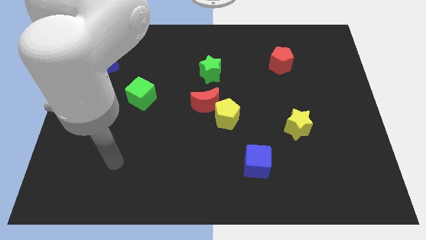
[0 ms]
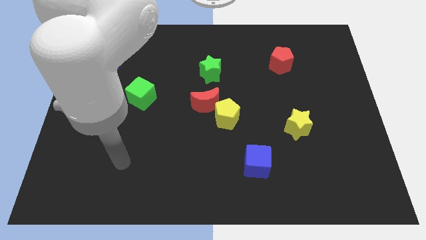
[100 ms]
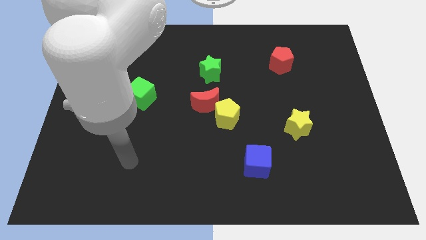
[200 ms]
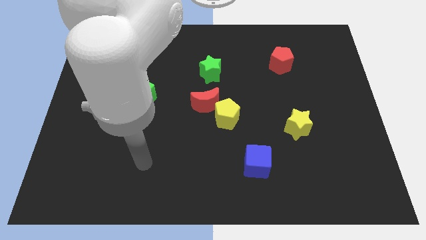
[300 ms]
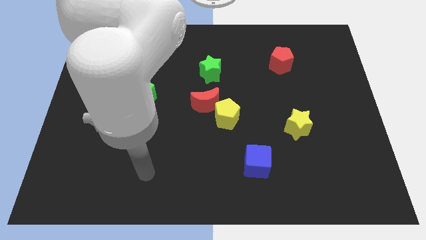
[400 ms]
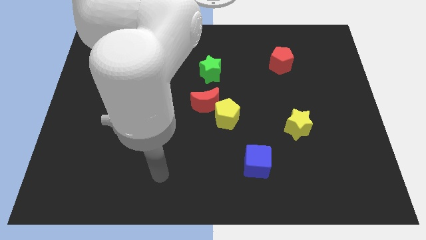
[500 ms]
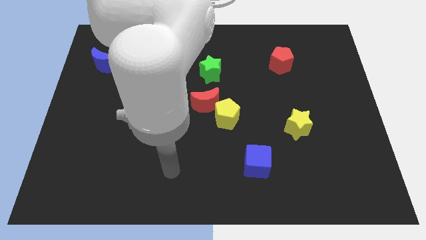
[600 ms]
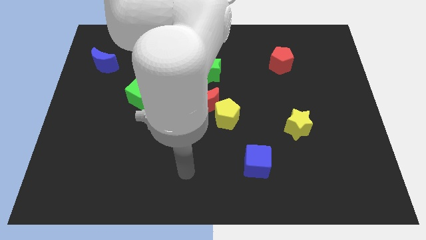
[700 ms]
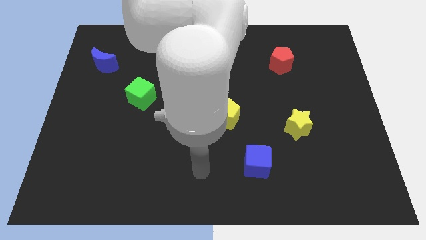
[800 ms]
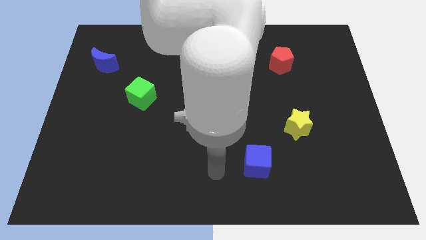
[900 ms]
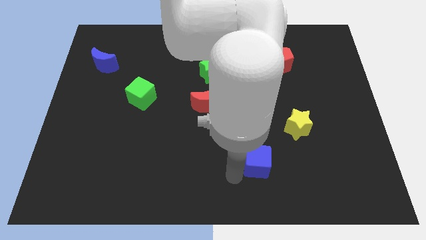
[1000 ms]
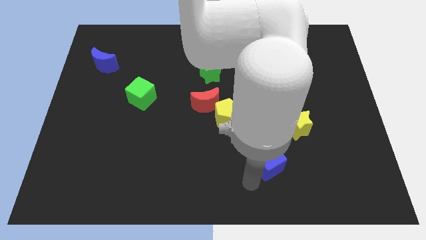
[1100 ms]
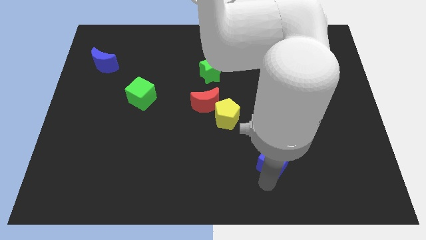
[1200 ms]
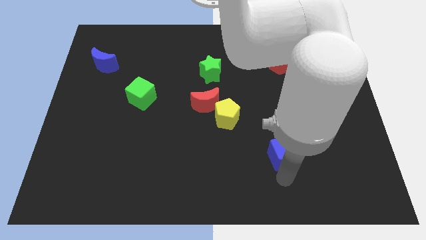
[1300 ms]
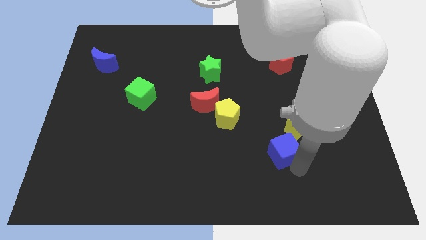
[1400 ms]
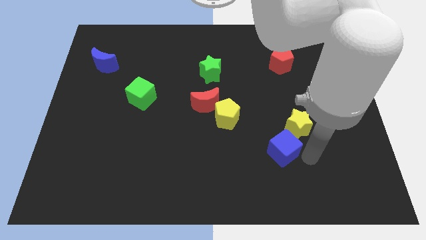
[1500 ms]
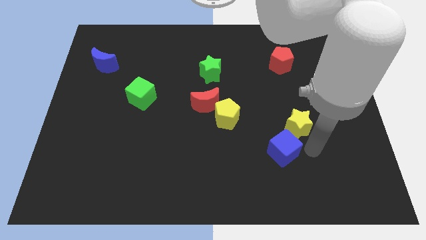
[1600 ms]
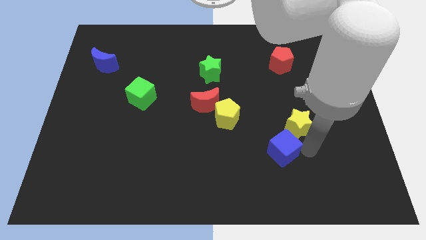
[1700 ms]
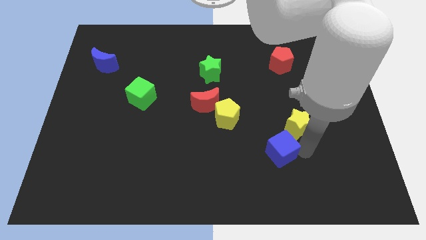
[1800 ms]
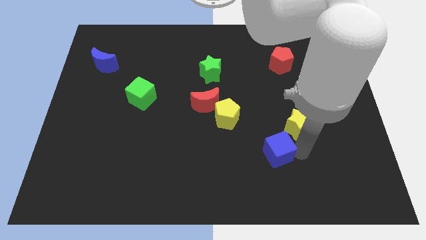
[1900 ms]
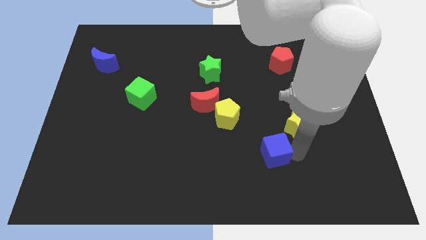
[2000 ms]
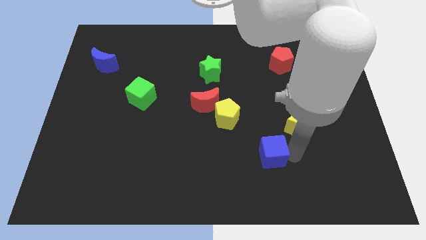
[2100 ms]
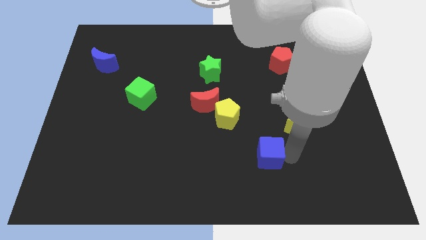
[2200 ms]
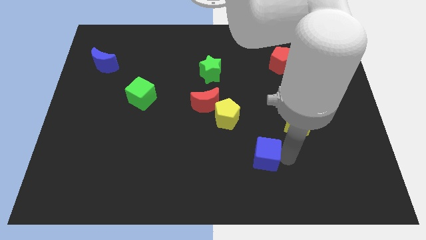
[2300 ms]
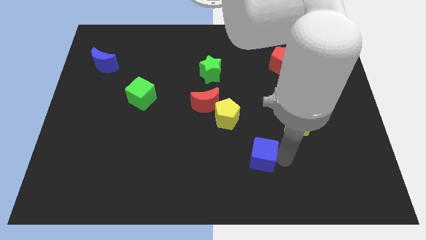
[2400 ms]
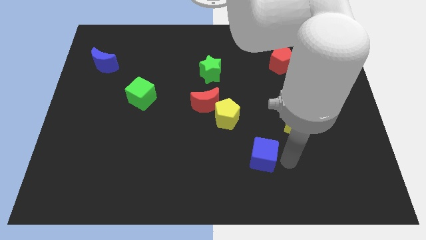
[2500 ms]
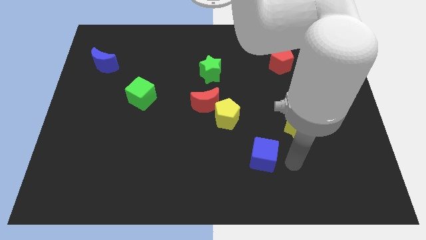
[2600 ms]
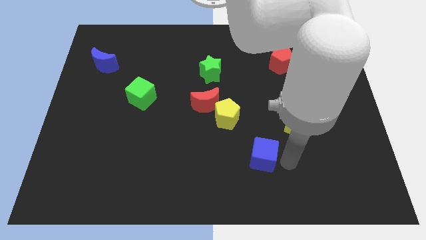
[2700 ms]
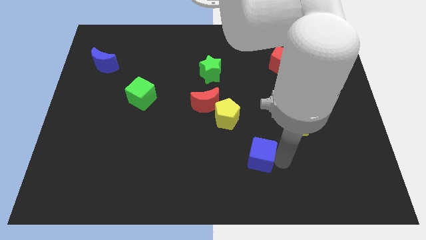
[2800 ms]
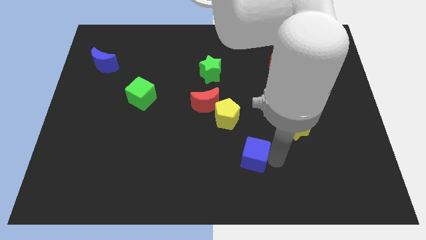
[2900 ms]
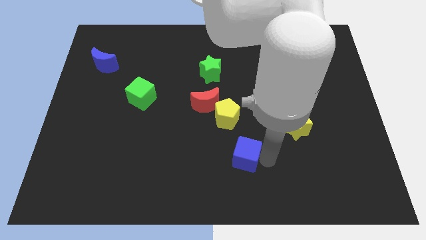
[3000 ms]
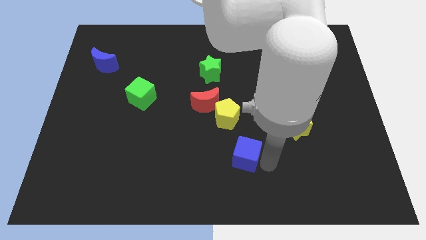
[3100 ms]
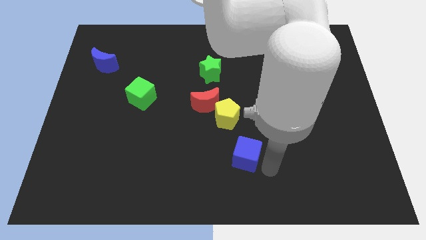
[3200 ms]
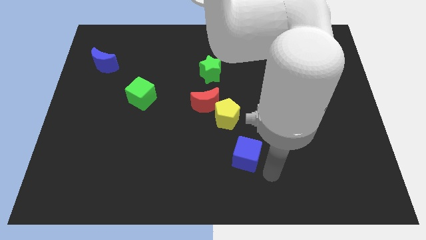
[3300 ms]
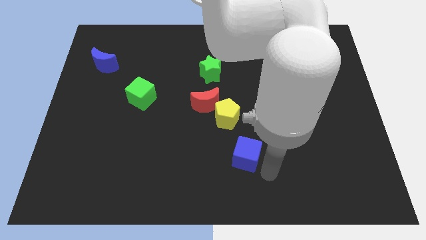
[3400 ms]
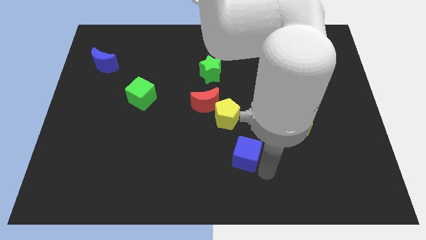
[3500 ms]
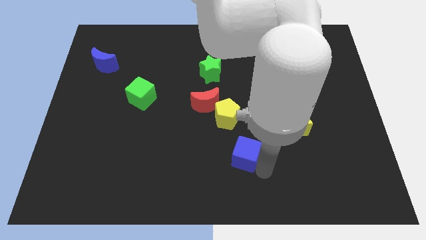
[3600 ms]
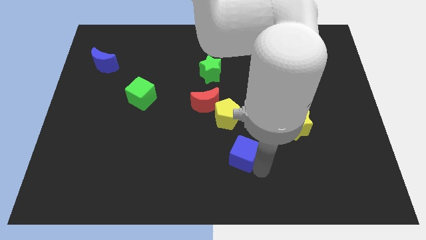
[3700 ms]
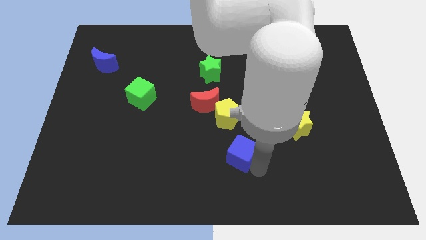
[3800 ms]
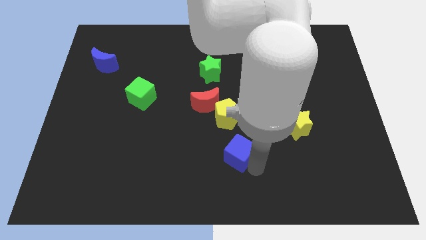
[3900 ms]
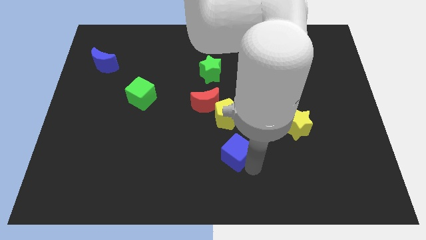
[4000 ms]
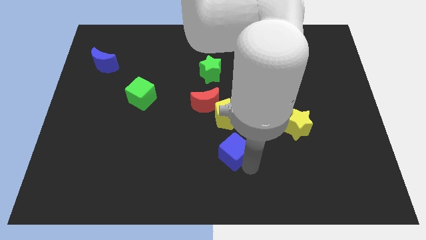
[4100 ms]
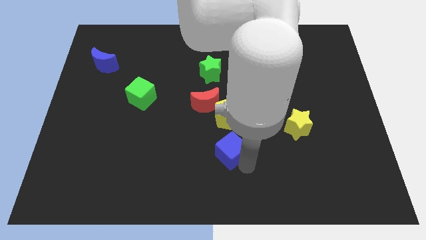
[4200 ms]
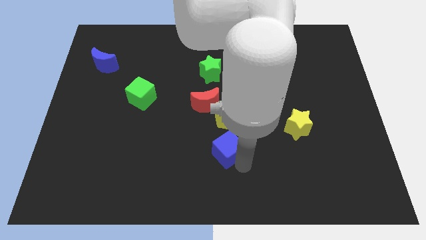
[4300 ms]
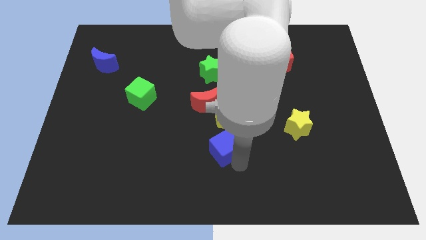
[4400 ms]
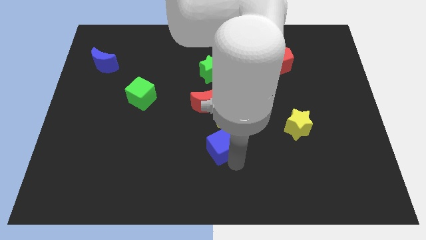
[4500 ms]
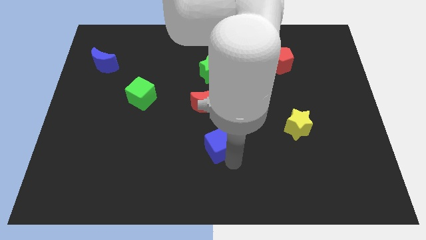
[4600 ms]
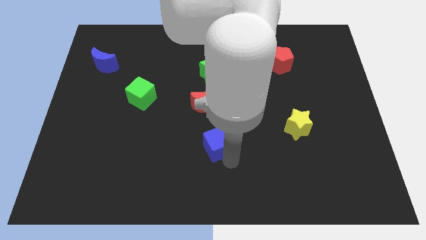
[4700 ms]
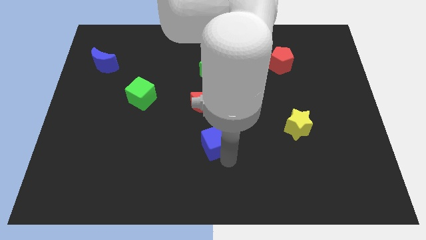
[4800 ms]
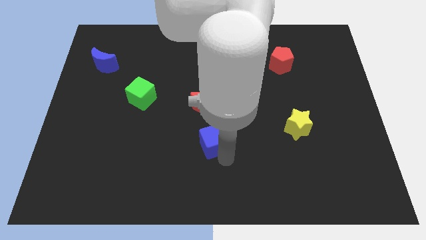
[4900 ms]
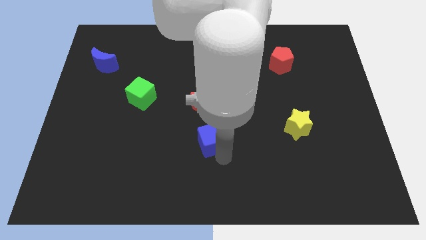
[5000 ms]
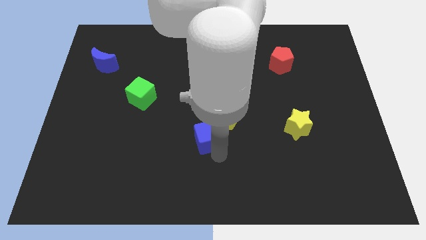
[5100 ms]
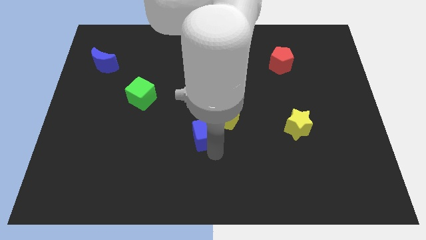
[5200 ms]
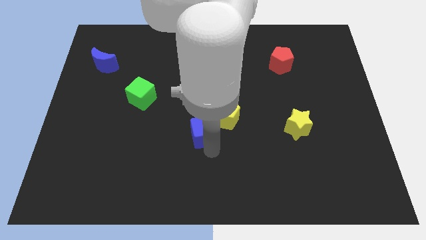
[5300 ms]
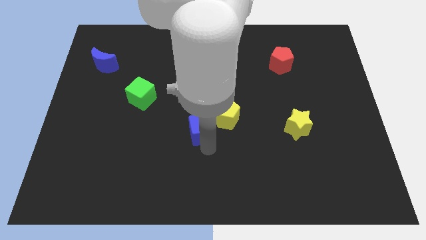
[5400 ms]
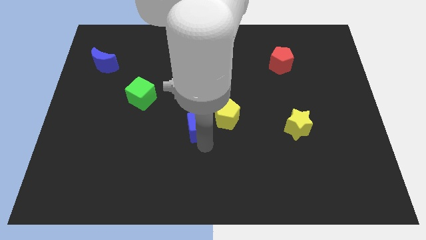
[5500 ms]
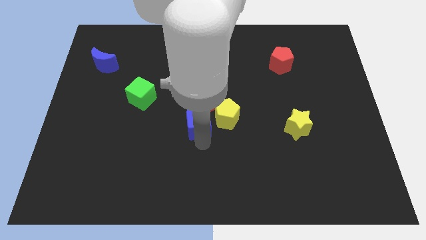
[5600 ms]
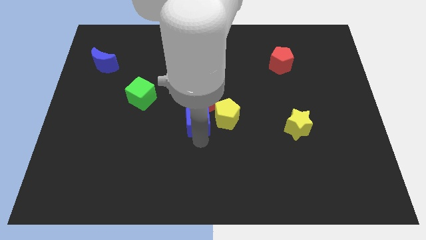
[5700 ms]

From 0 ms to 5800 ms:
push the blue cube next to the red moon

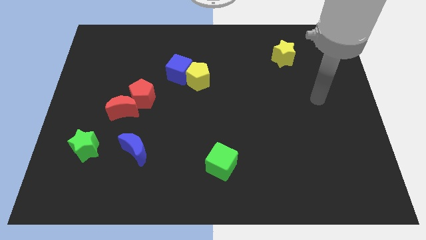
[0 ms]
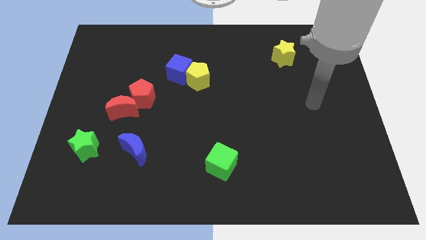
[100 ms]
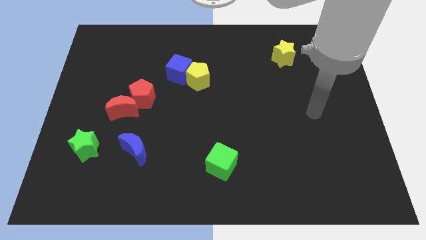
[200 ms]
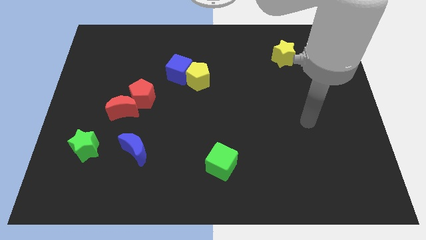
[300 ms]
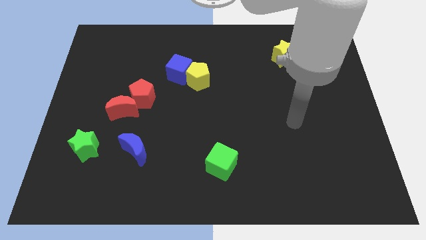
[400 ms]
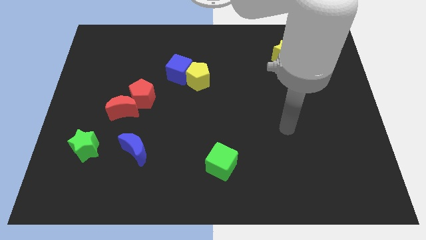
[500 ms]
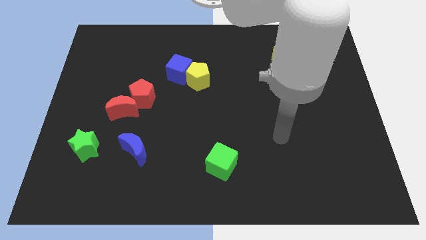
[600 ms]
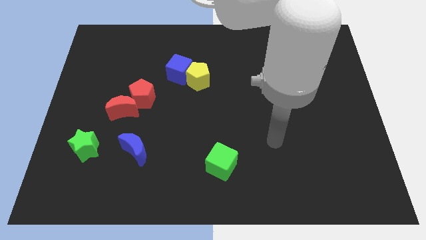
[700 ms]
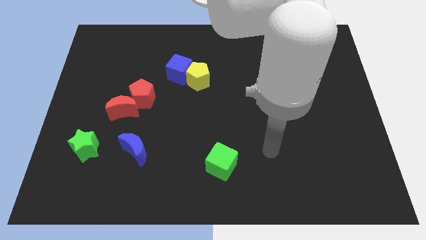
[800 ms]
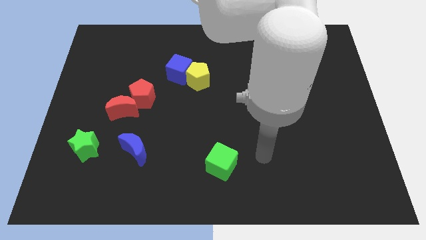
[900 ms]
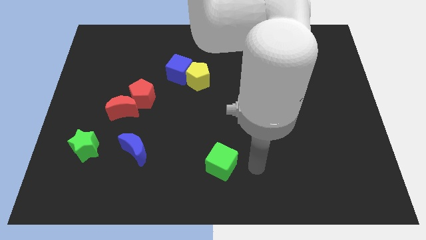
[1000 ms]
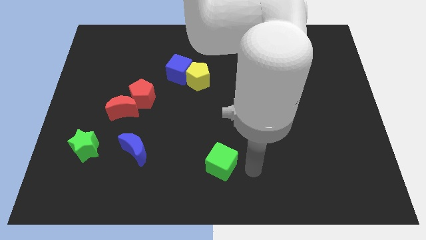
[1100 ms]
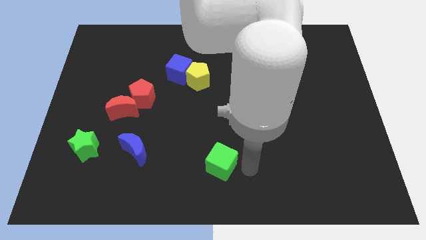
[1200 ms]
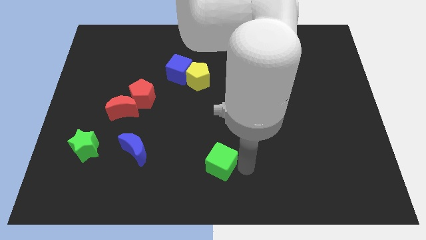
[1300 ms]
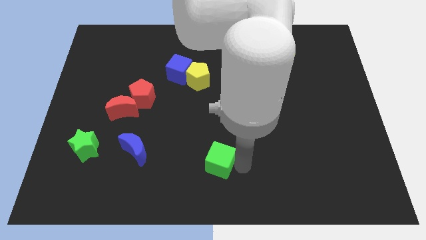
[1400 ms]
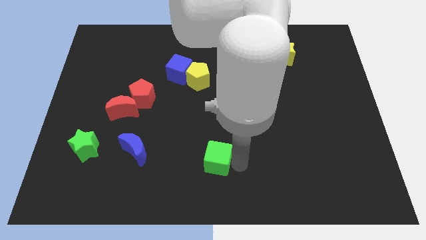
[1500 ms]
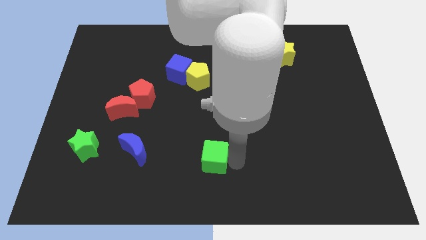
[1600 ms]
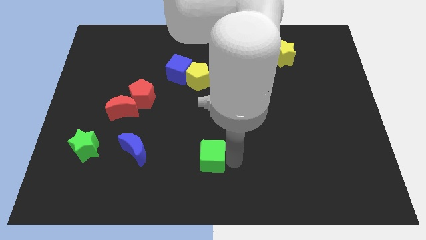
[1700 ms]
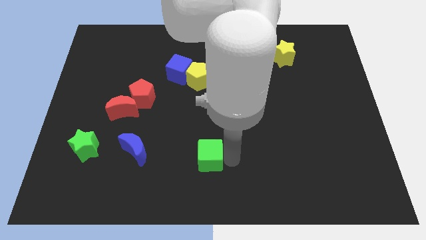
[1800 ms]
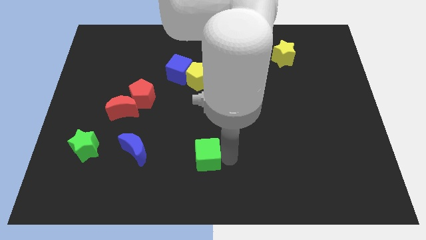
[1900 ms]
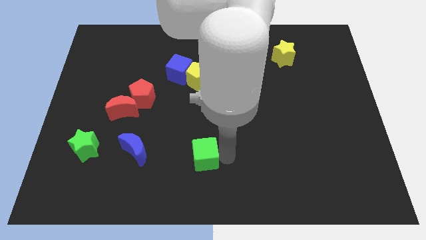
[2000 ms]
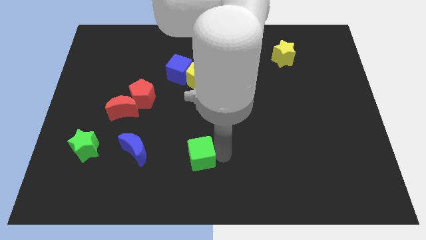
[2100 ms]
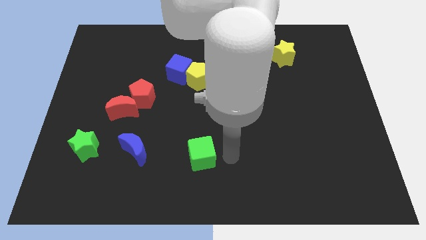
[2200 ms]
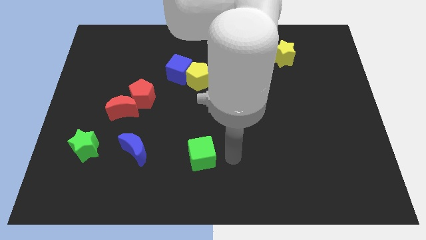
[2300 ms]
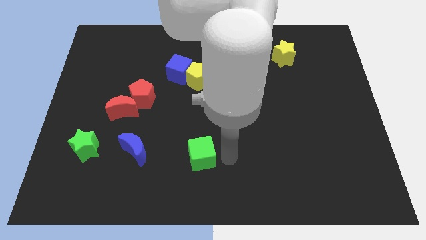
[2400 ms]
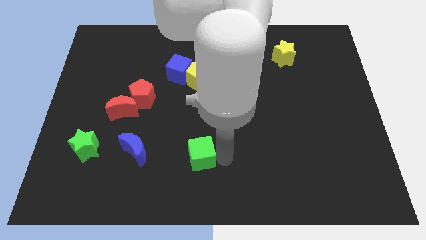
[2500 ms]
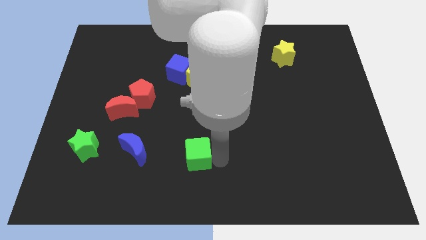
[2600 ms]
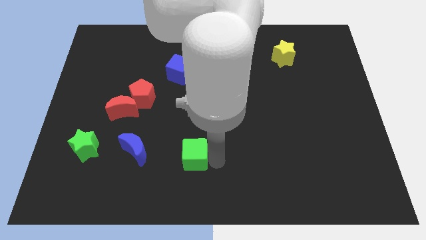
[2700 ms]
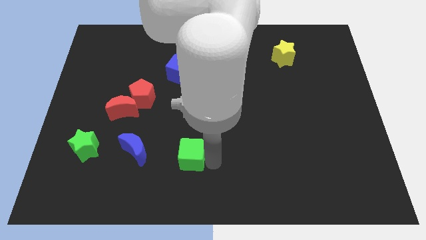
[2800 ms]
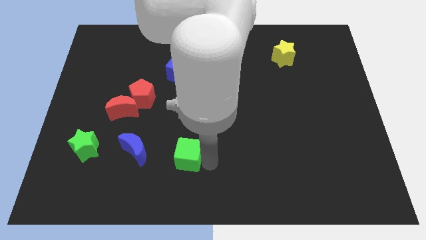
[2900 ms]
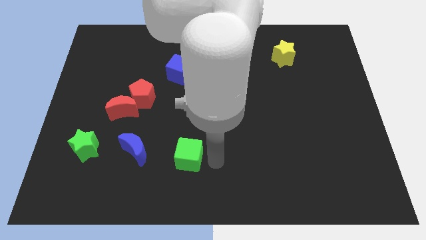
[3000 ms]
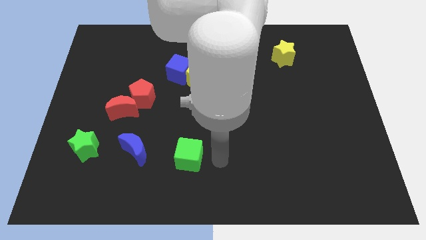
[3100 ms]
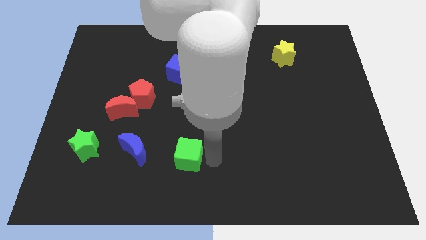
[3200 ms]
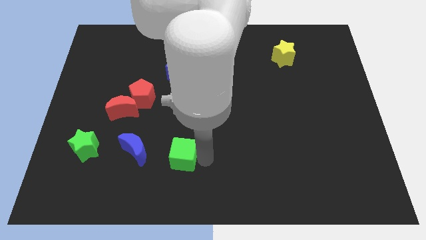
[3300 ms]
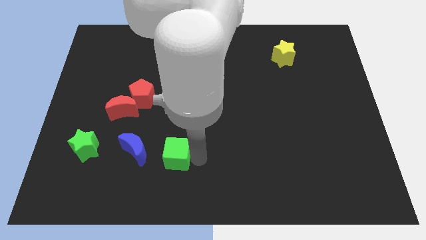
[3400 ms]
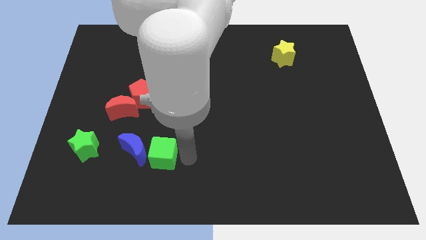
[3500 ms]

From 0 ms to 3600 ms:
put the green cube towards the blue moon
